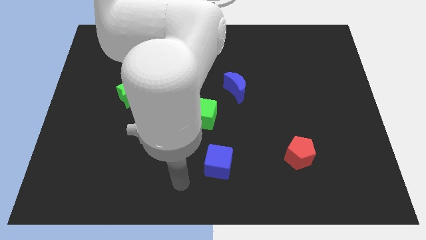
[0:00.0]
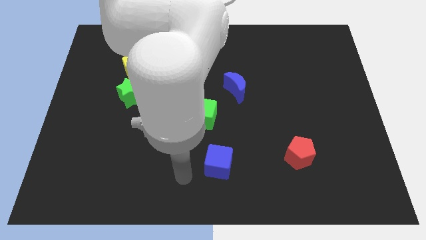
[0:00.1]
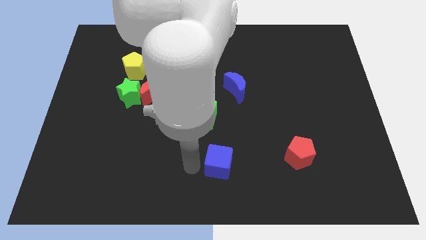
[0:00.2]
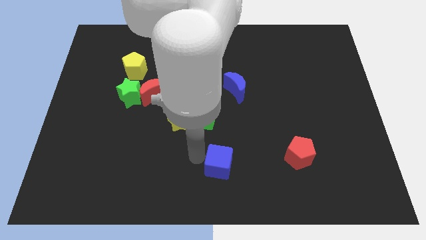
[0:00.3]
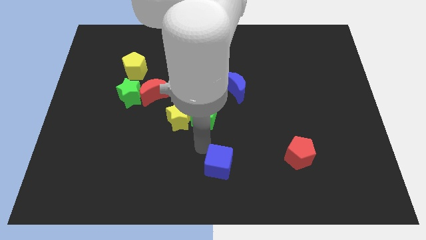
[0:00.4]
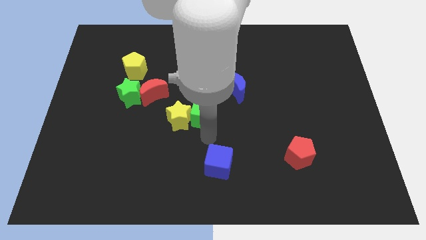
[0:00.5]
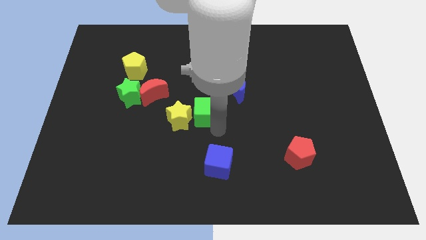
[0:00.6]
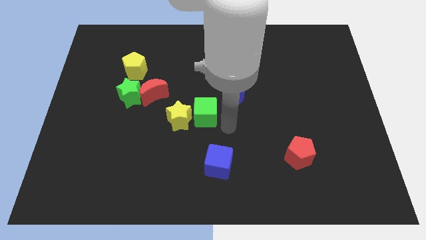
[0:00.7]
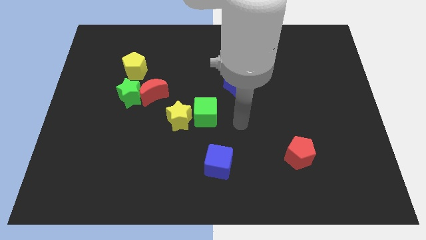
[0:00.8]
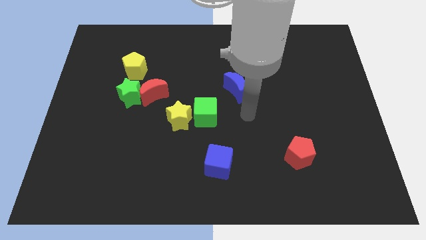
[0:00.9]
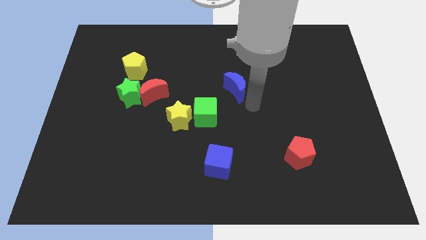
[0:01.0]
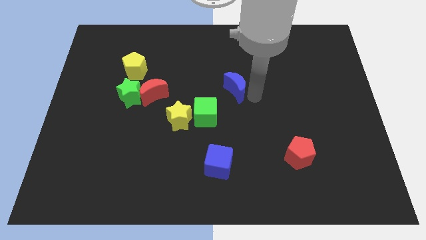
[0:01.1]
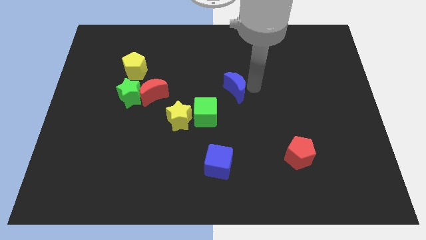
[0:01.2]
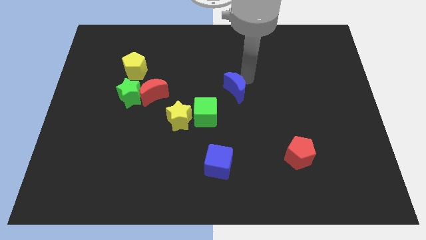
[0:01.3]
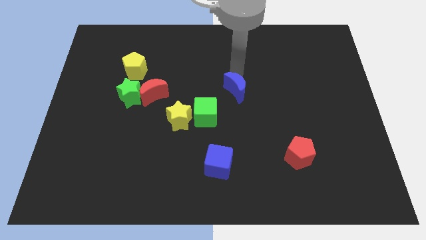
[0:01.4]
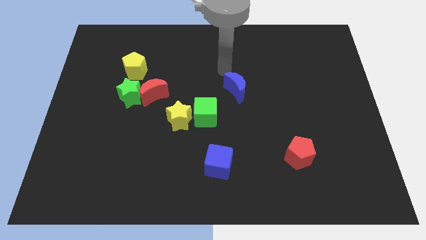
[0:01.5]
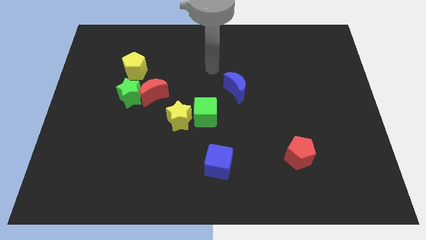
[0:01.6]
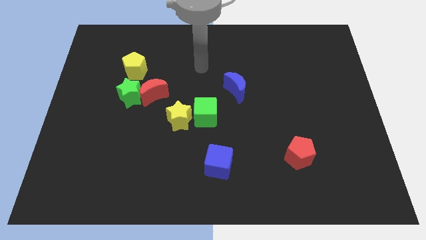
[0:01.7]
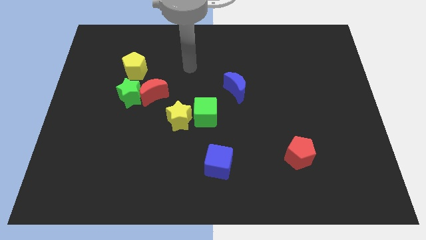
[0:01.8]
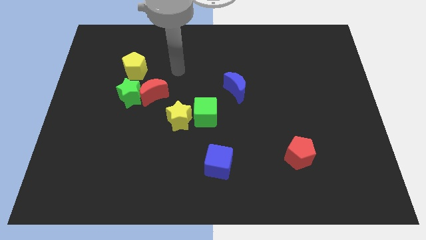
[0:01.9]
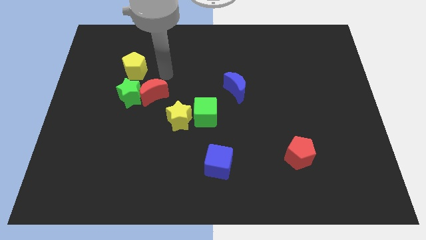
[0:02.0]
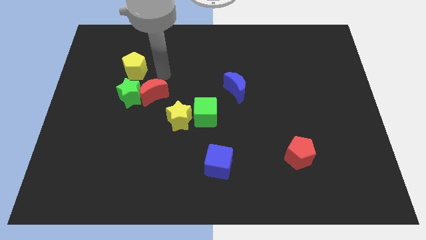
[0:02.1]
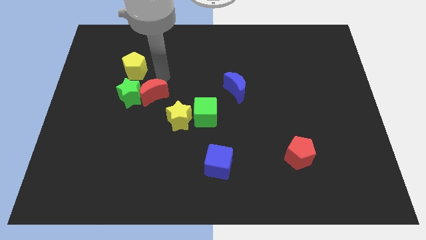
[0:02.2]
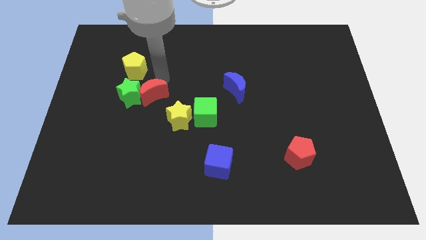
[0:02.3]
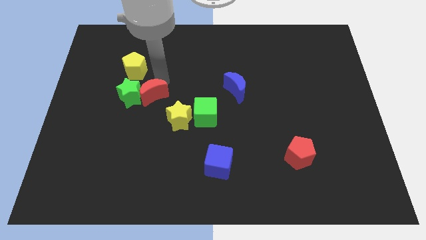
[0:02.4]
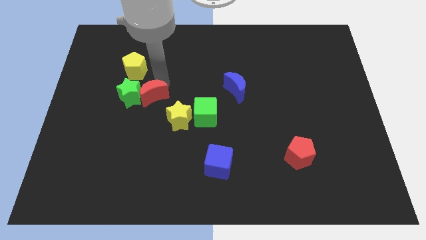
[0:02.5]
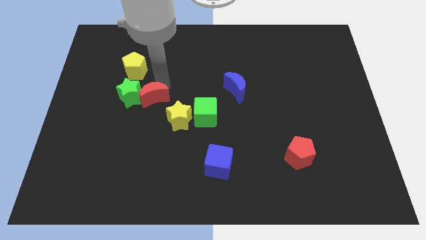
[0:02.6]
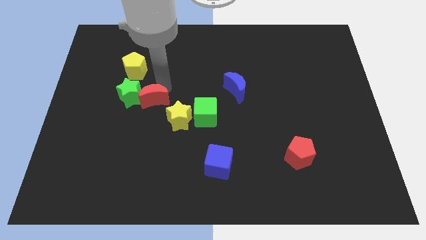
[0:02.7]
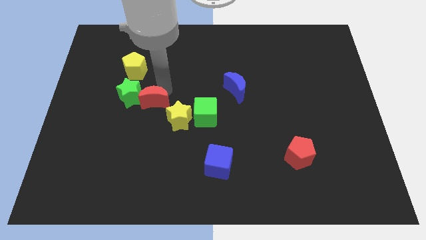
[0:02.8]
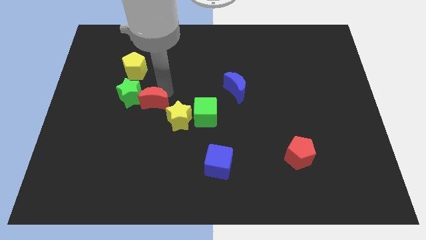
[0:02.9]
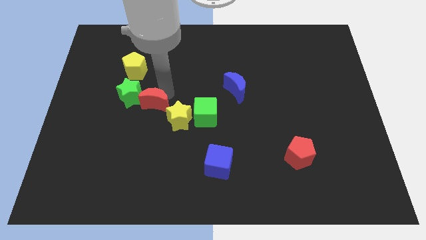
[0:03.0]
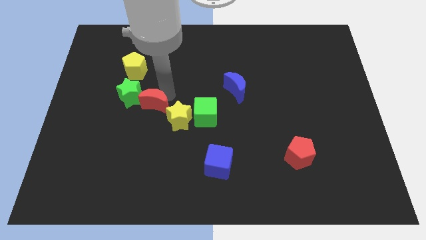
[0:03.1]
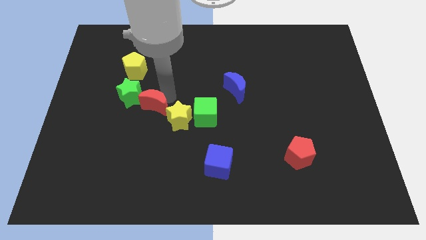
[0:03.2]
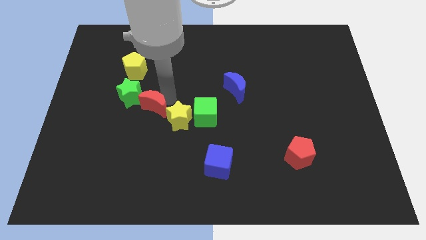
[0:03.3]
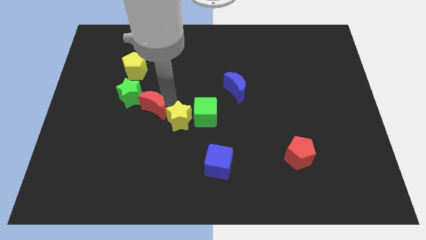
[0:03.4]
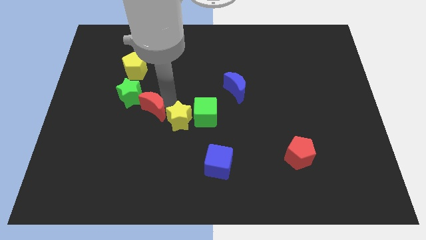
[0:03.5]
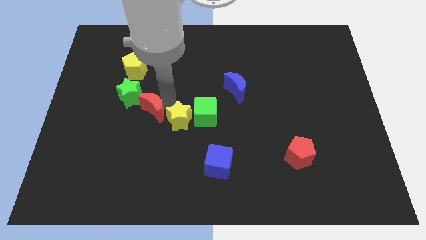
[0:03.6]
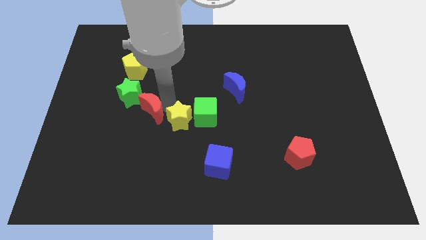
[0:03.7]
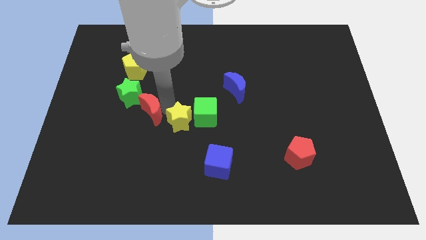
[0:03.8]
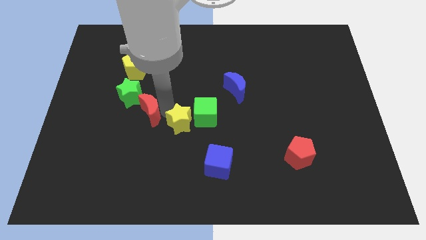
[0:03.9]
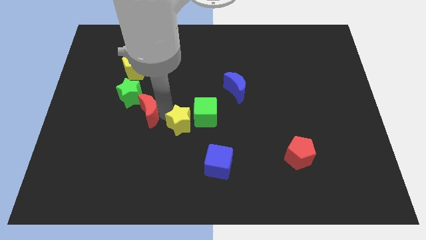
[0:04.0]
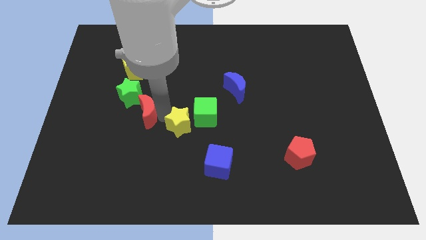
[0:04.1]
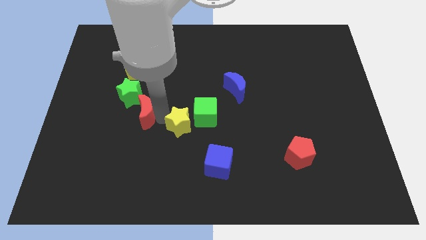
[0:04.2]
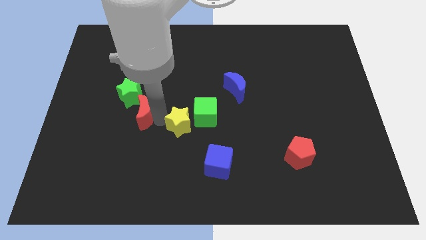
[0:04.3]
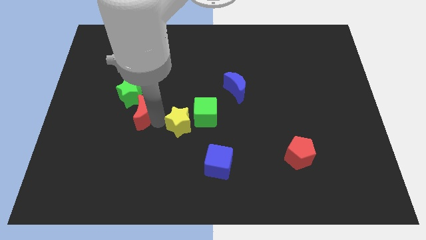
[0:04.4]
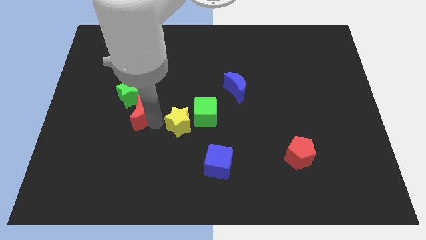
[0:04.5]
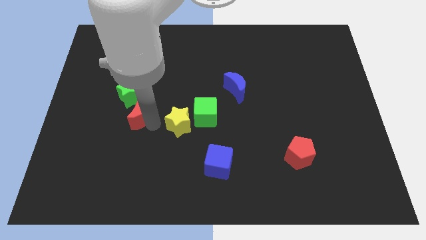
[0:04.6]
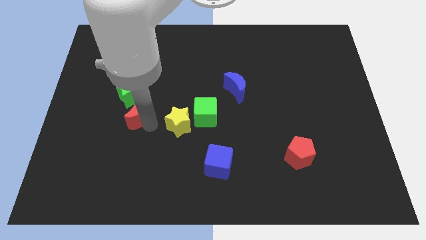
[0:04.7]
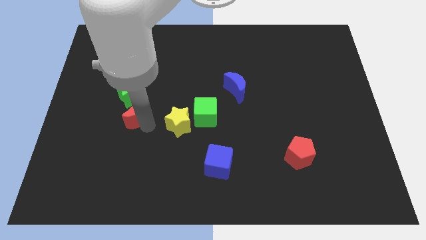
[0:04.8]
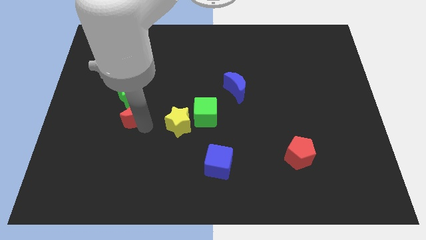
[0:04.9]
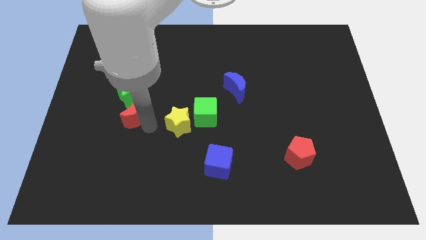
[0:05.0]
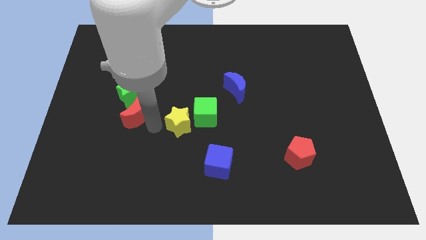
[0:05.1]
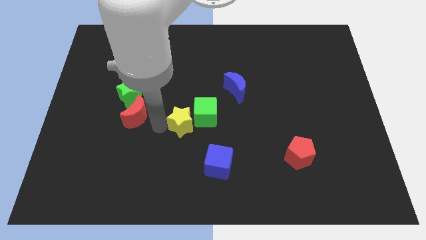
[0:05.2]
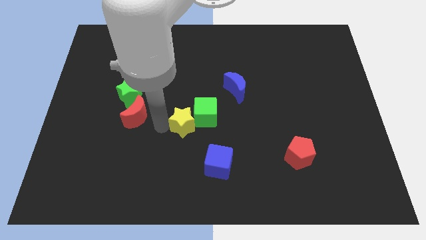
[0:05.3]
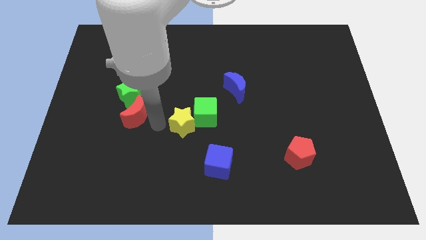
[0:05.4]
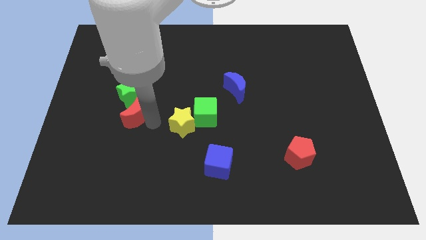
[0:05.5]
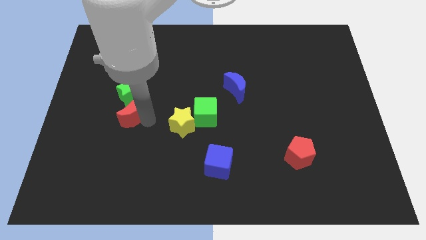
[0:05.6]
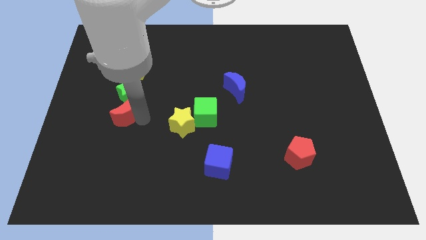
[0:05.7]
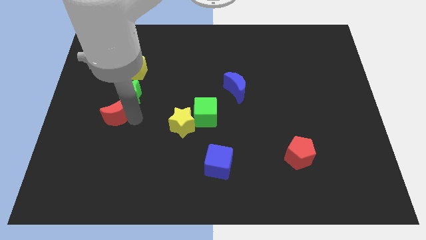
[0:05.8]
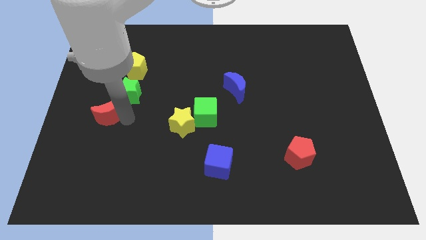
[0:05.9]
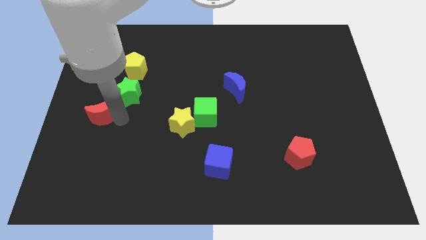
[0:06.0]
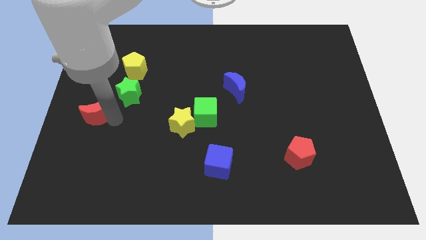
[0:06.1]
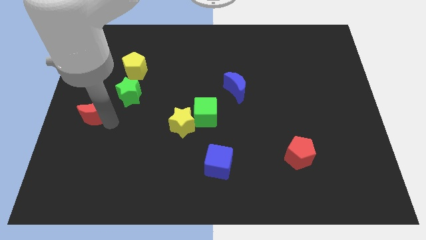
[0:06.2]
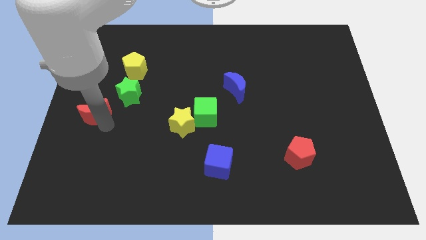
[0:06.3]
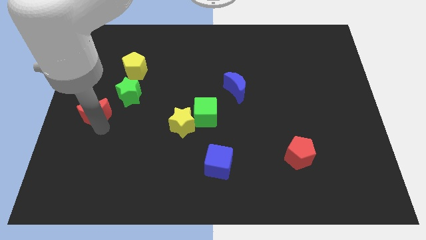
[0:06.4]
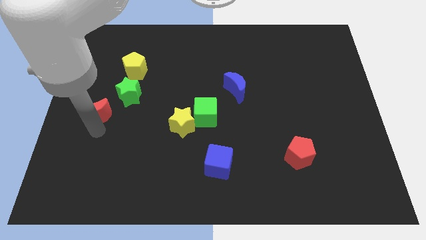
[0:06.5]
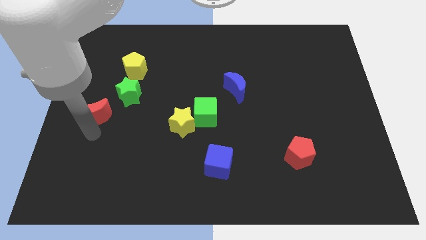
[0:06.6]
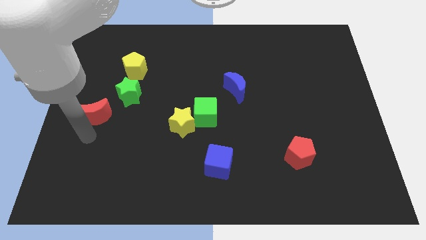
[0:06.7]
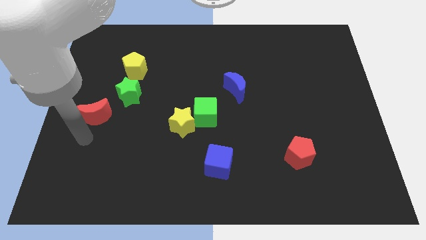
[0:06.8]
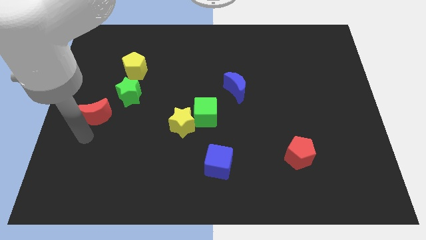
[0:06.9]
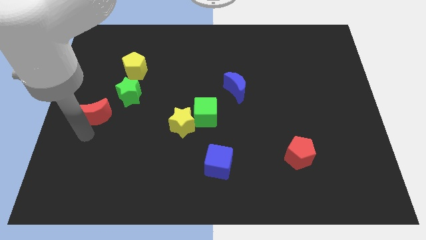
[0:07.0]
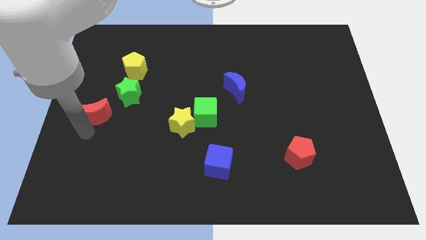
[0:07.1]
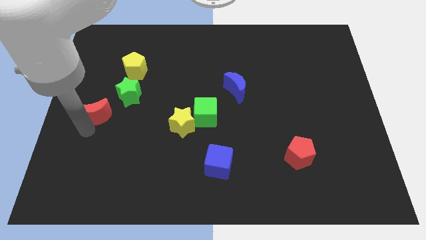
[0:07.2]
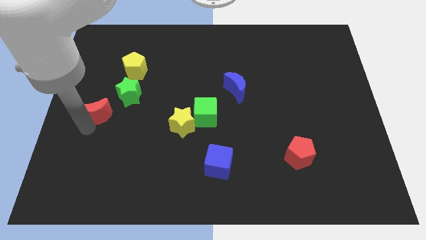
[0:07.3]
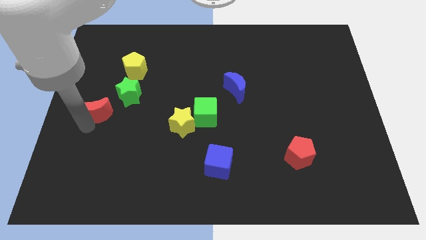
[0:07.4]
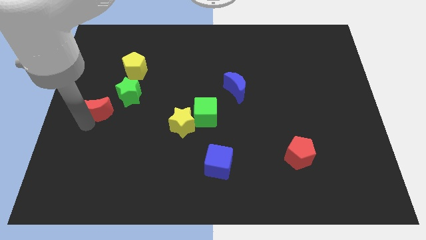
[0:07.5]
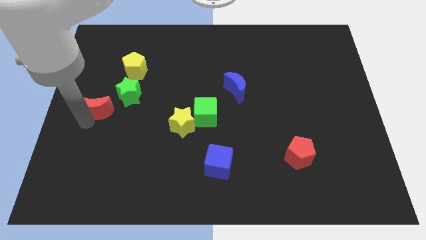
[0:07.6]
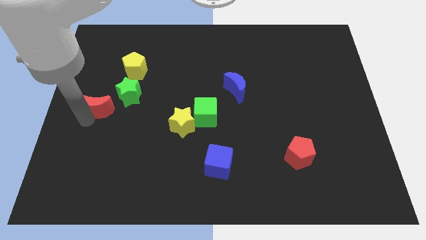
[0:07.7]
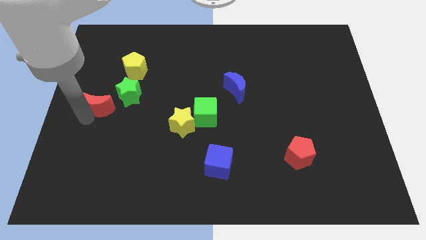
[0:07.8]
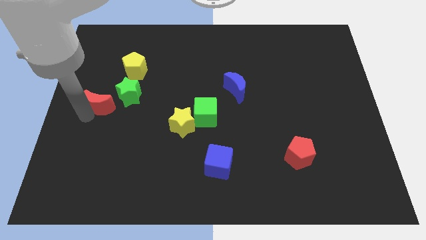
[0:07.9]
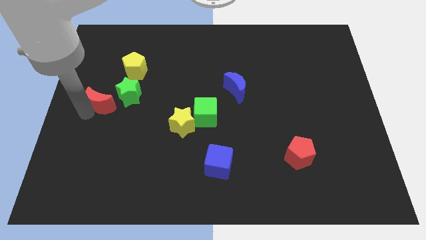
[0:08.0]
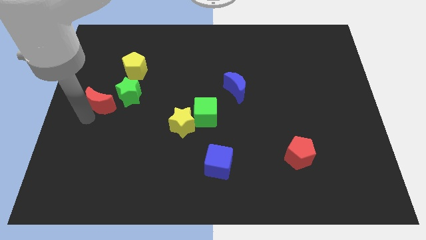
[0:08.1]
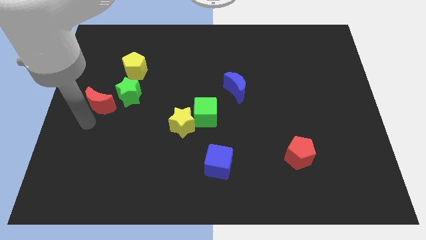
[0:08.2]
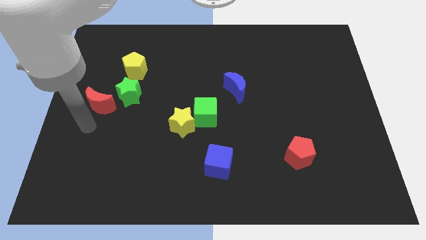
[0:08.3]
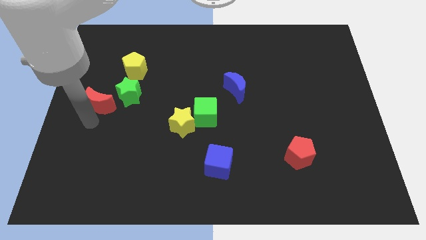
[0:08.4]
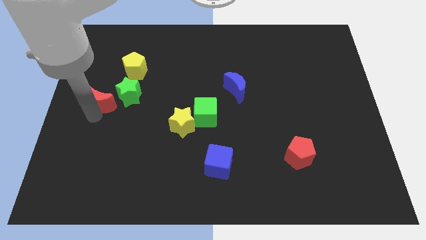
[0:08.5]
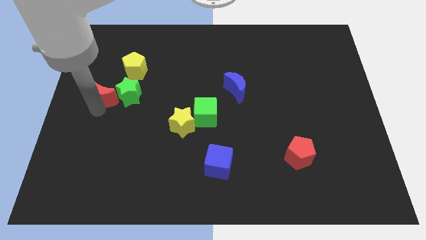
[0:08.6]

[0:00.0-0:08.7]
slide the red moon to the bottom left side of the yellow pentagon
